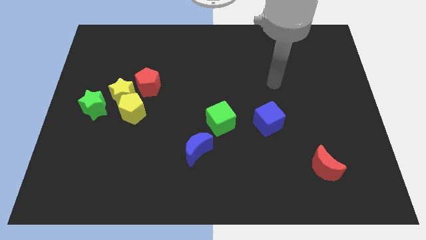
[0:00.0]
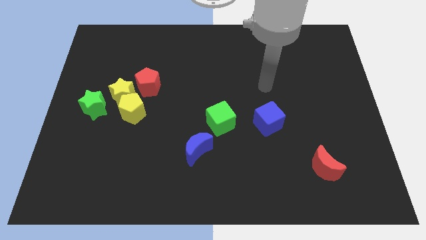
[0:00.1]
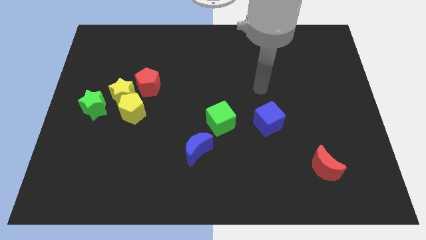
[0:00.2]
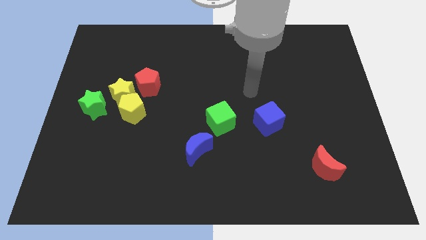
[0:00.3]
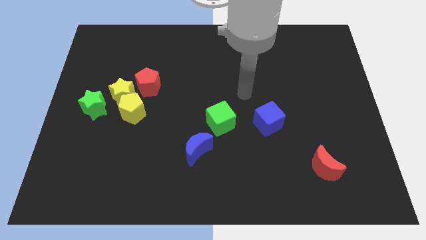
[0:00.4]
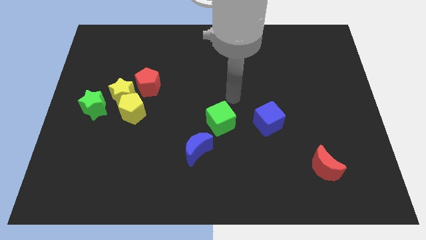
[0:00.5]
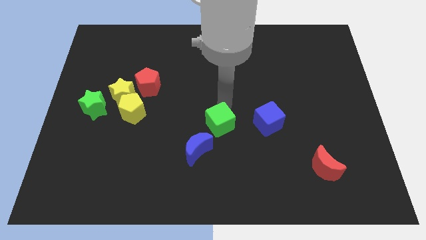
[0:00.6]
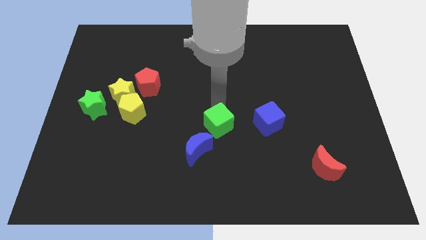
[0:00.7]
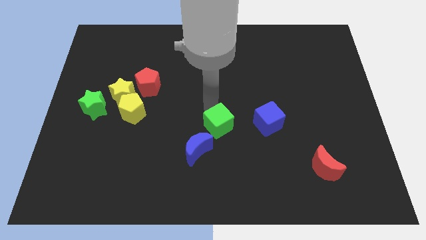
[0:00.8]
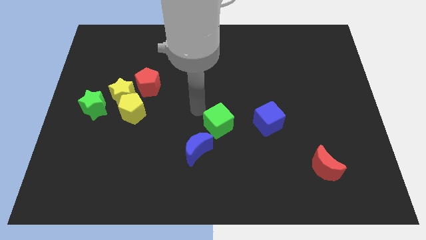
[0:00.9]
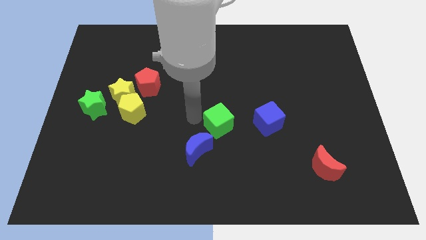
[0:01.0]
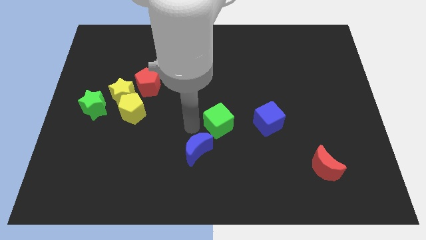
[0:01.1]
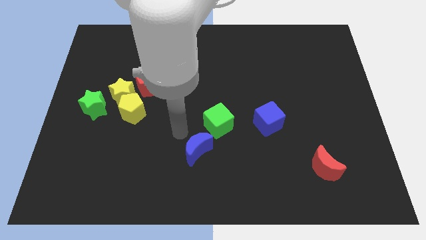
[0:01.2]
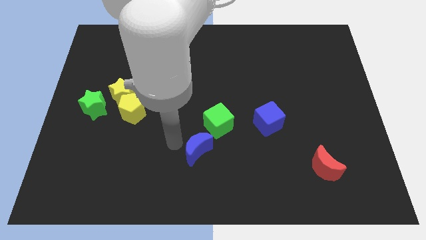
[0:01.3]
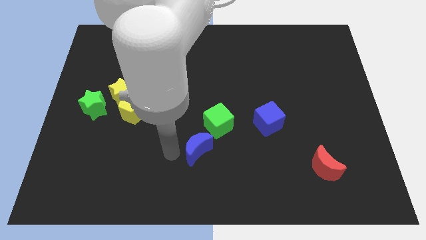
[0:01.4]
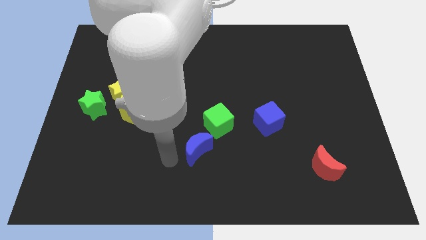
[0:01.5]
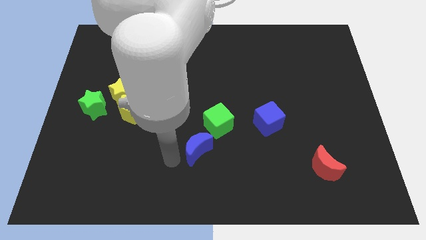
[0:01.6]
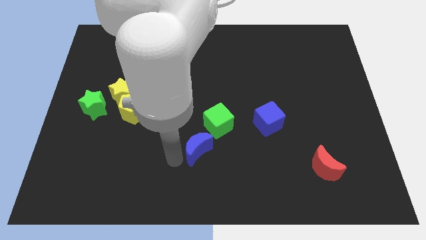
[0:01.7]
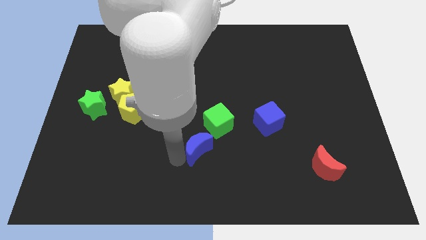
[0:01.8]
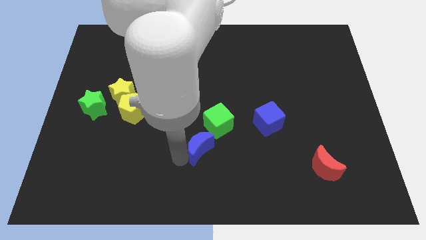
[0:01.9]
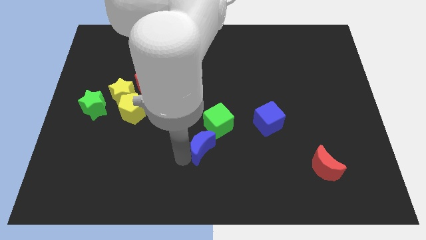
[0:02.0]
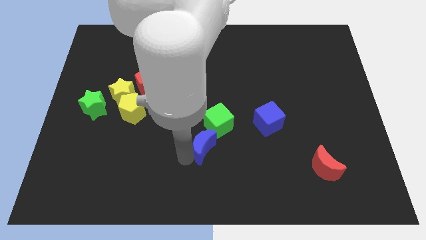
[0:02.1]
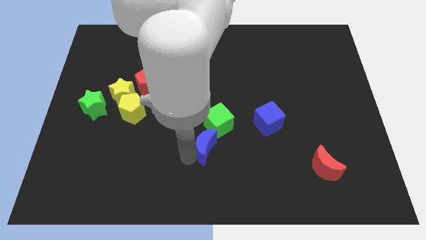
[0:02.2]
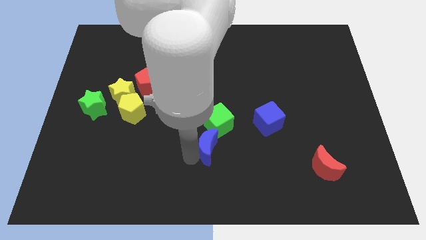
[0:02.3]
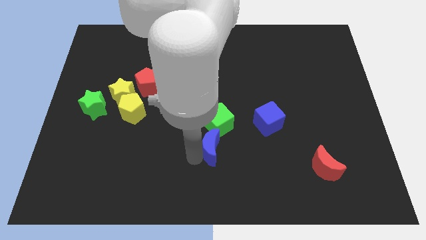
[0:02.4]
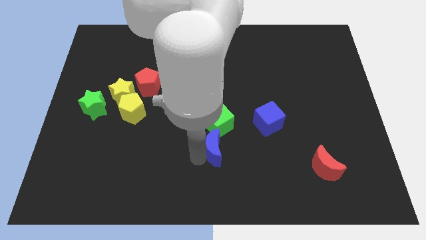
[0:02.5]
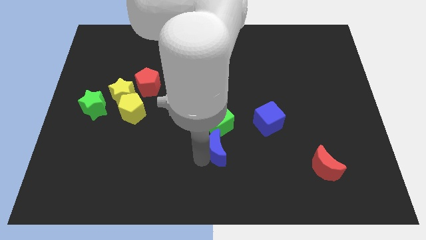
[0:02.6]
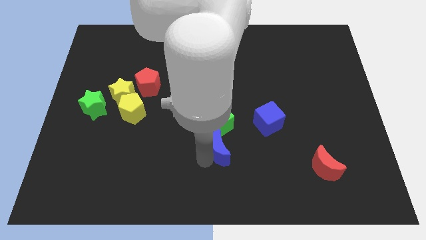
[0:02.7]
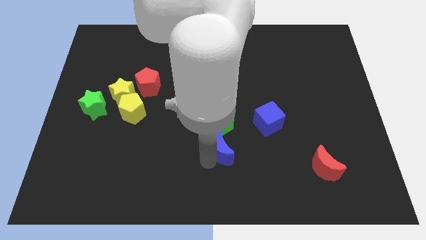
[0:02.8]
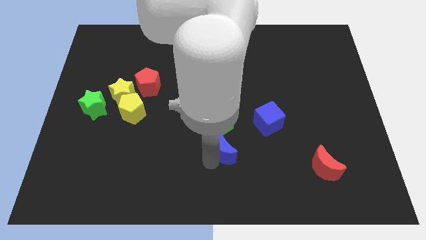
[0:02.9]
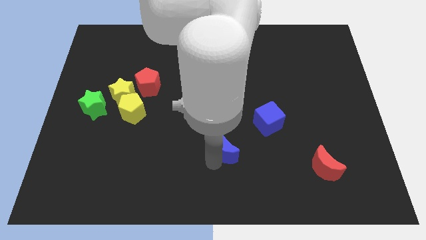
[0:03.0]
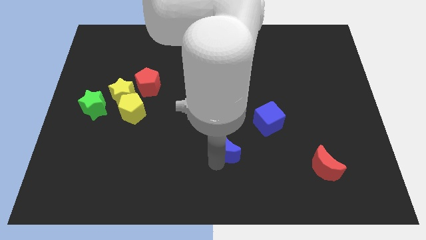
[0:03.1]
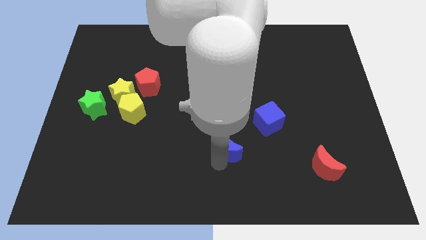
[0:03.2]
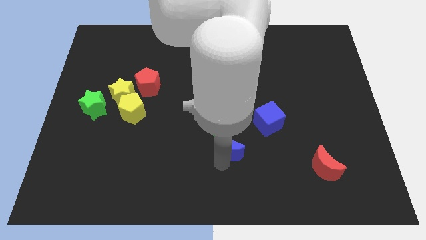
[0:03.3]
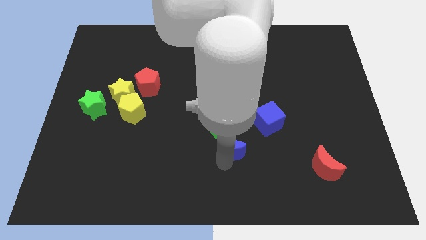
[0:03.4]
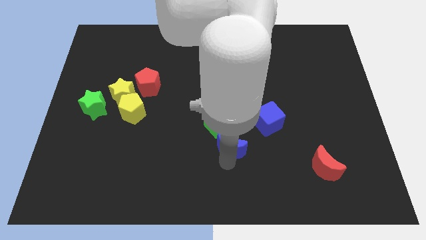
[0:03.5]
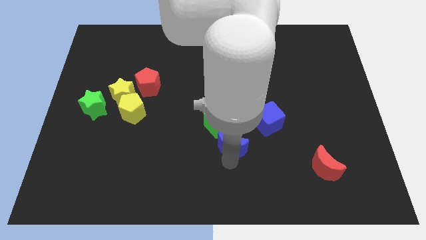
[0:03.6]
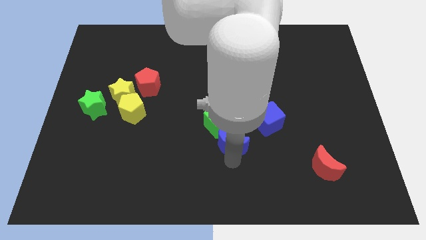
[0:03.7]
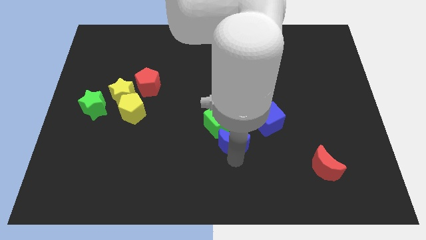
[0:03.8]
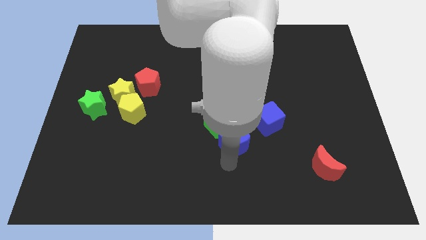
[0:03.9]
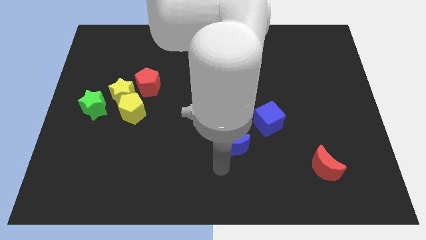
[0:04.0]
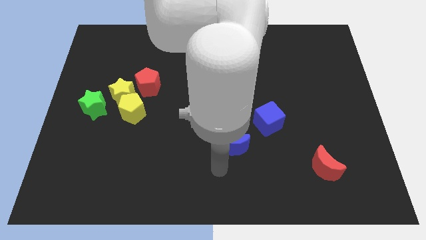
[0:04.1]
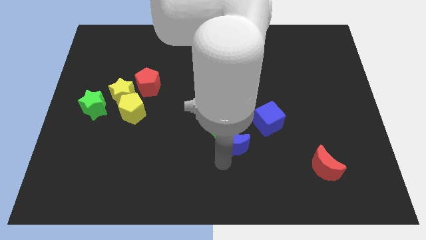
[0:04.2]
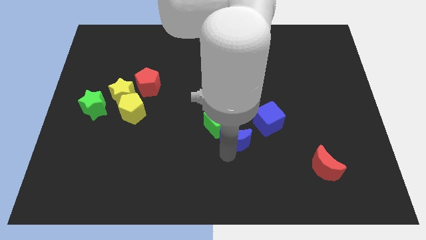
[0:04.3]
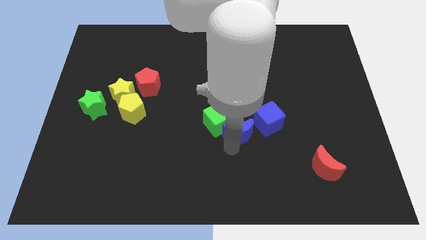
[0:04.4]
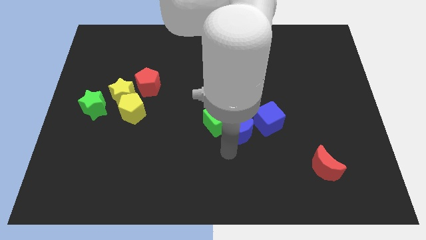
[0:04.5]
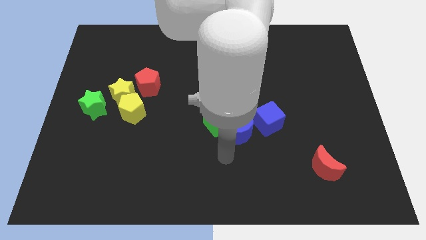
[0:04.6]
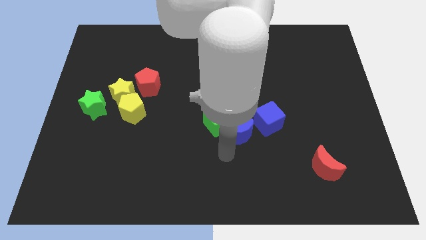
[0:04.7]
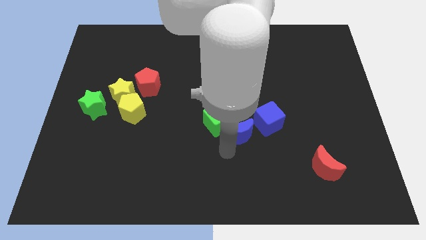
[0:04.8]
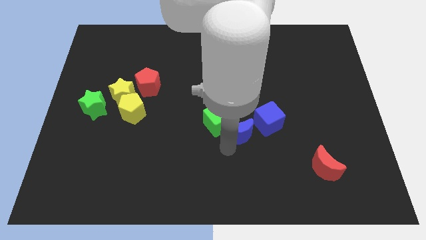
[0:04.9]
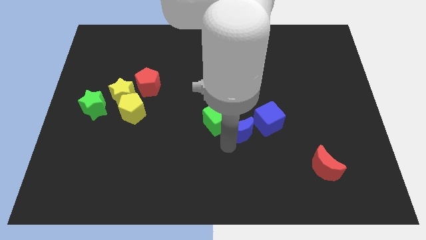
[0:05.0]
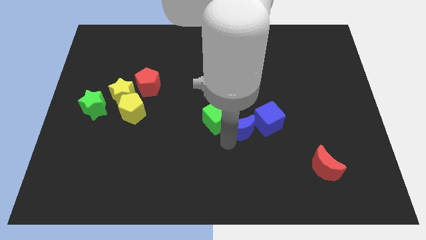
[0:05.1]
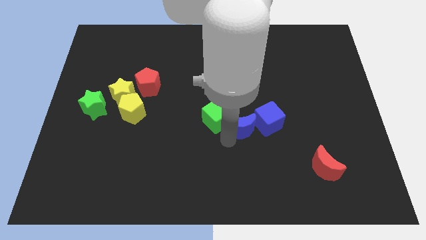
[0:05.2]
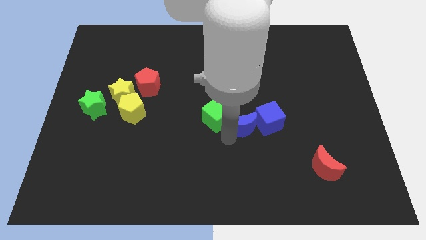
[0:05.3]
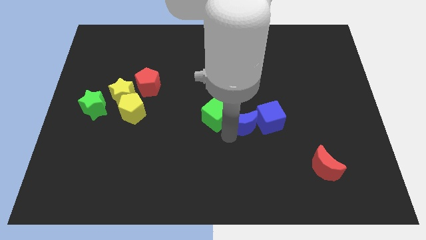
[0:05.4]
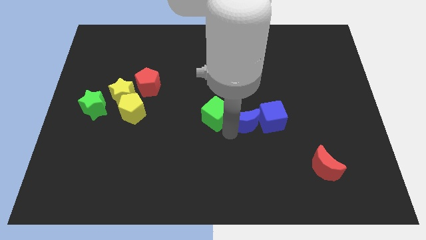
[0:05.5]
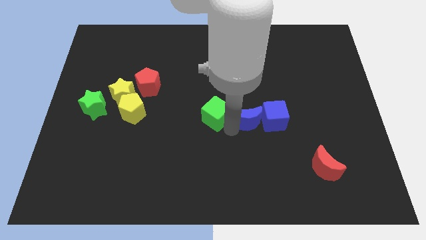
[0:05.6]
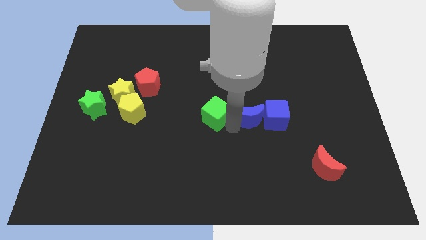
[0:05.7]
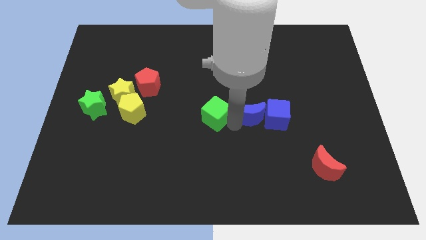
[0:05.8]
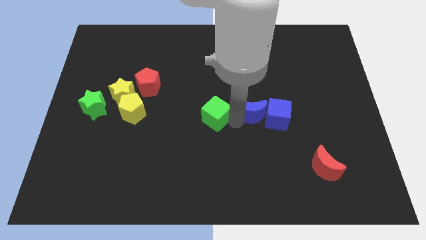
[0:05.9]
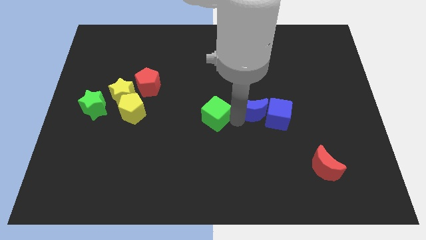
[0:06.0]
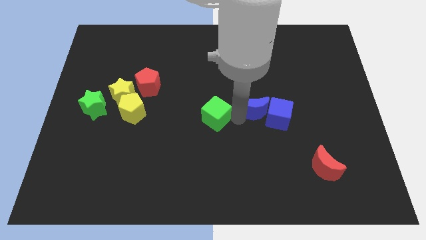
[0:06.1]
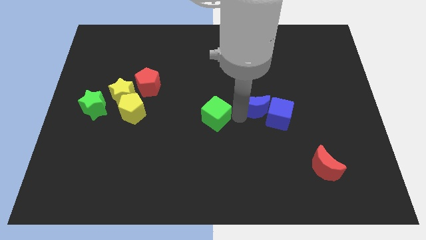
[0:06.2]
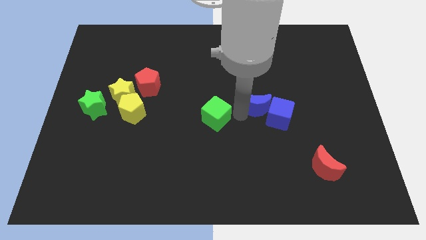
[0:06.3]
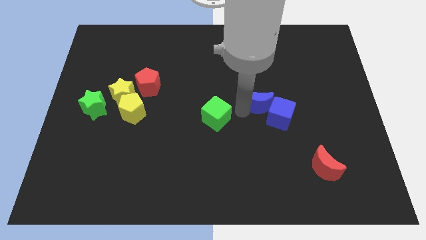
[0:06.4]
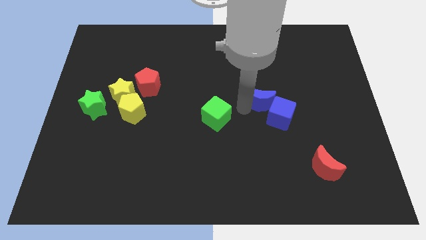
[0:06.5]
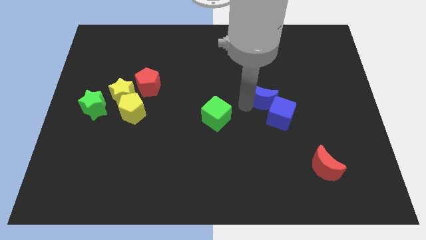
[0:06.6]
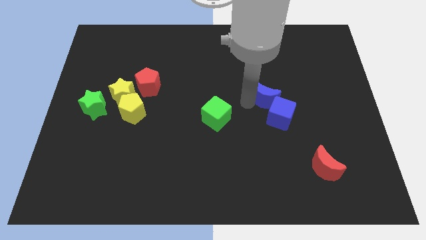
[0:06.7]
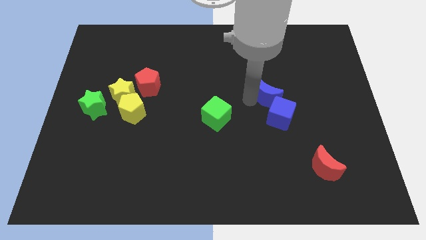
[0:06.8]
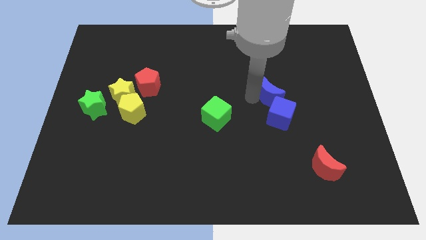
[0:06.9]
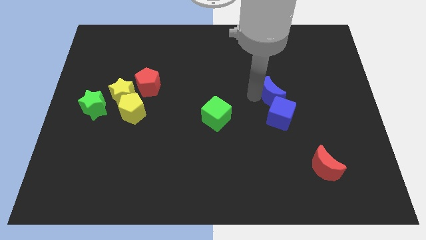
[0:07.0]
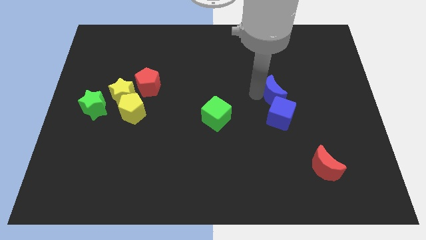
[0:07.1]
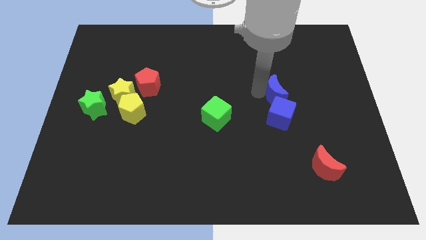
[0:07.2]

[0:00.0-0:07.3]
move the blue moon diagonally up and to the right of the blue cube
